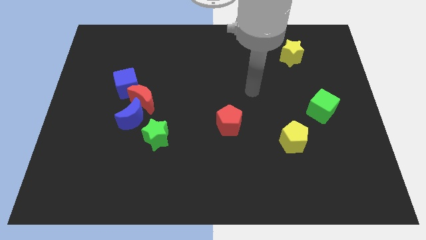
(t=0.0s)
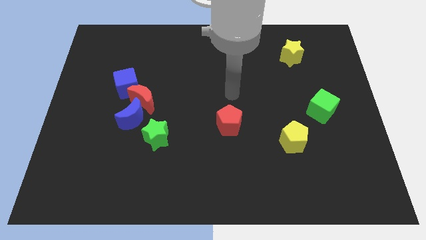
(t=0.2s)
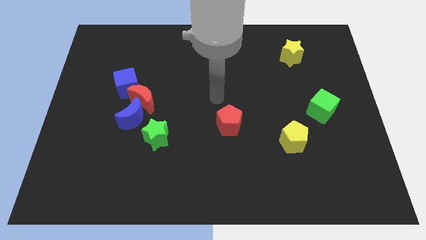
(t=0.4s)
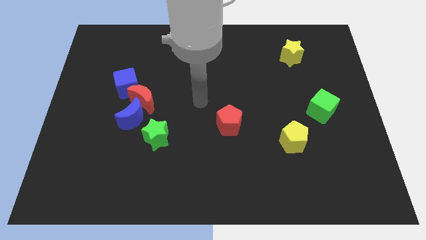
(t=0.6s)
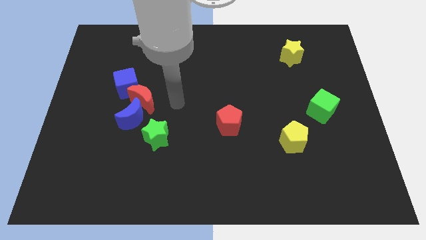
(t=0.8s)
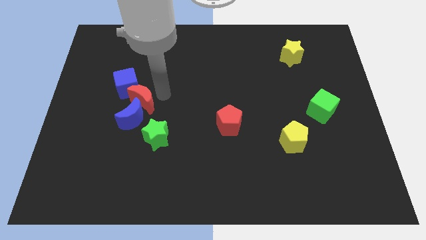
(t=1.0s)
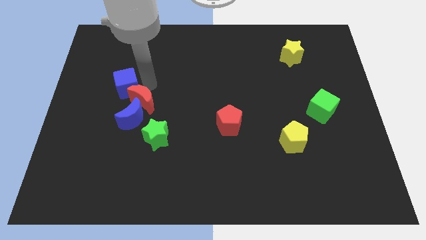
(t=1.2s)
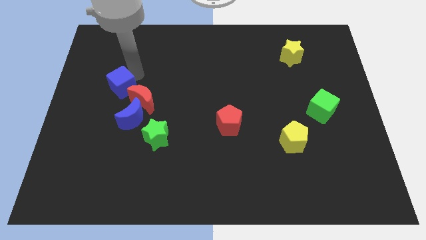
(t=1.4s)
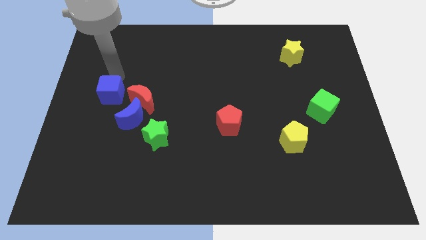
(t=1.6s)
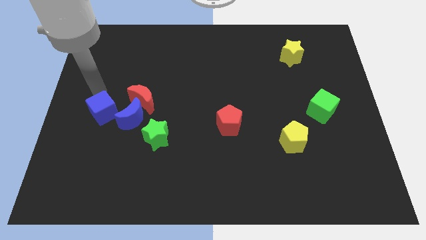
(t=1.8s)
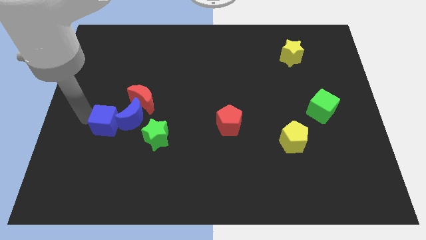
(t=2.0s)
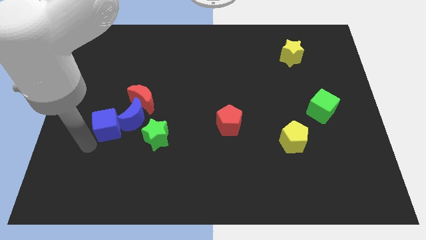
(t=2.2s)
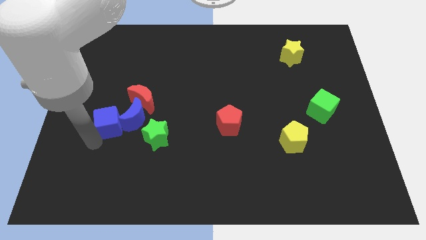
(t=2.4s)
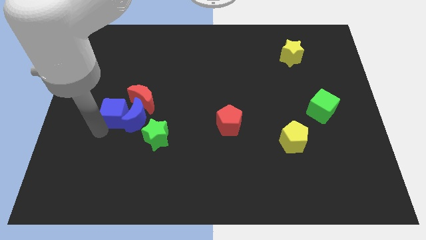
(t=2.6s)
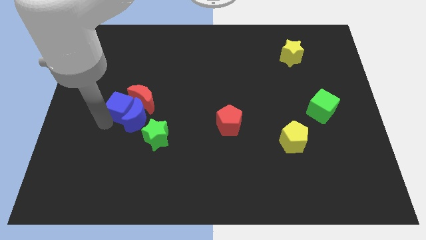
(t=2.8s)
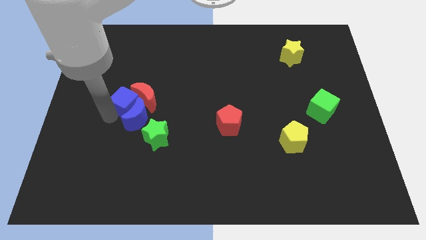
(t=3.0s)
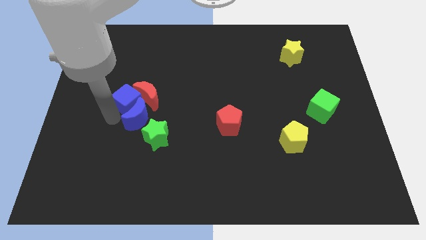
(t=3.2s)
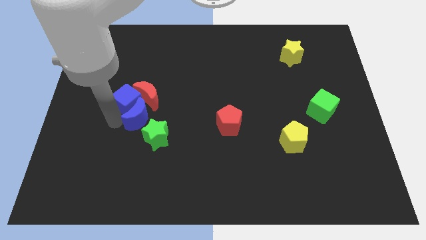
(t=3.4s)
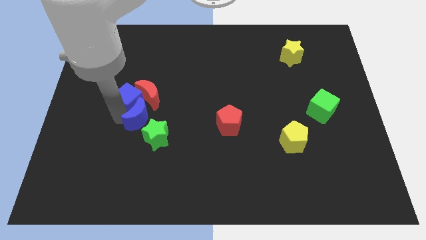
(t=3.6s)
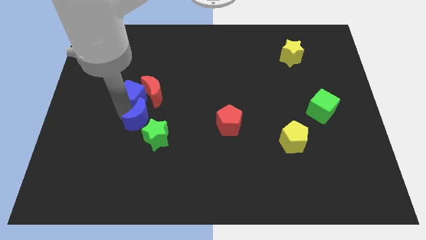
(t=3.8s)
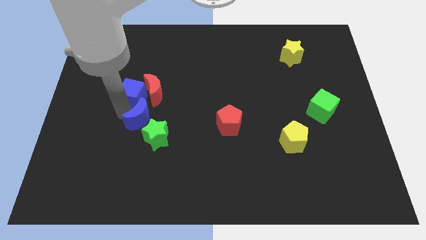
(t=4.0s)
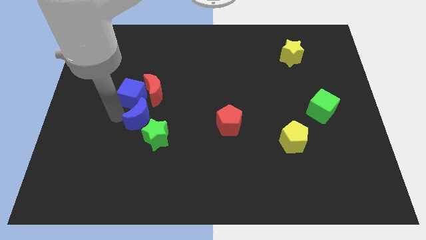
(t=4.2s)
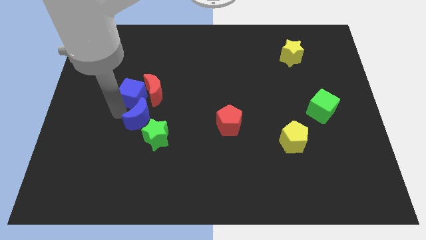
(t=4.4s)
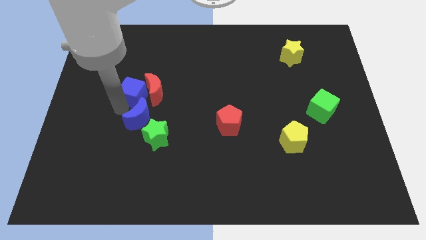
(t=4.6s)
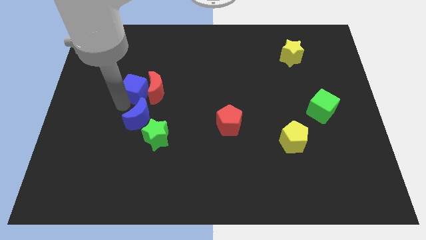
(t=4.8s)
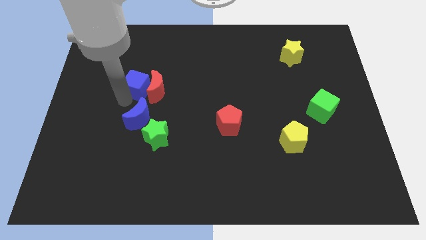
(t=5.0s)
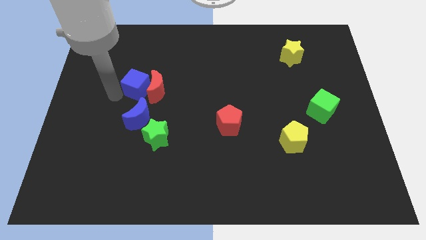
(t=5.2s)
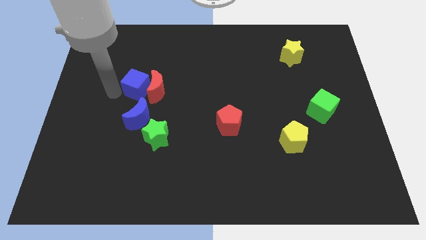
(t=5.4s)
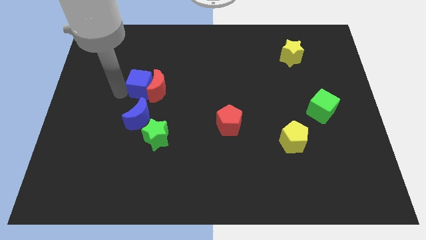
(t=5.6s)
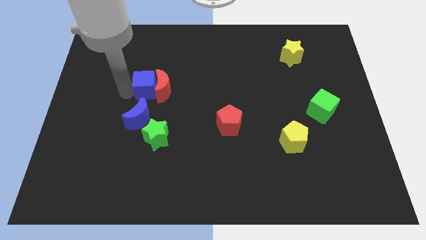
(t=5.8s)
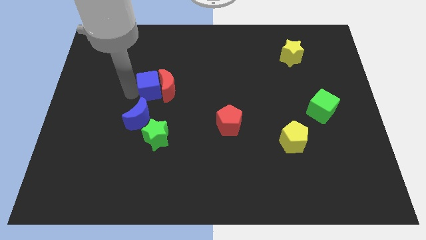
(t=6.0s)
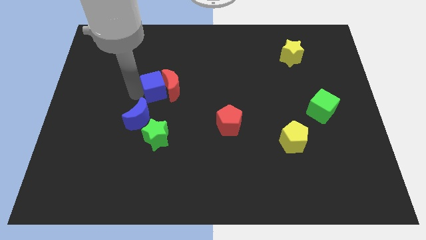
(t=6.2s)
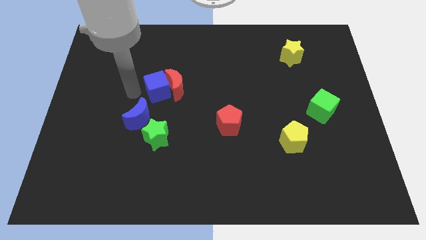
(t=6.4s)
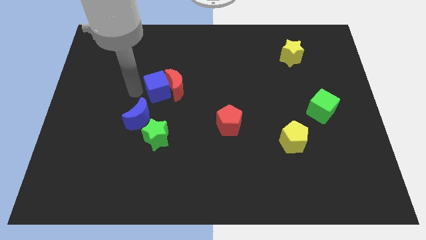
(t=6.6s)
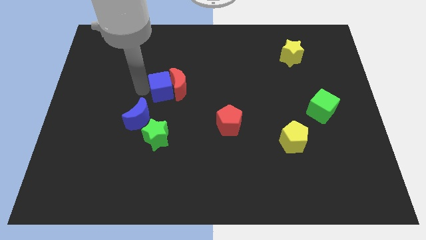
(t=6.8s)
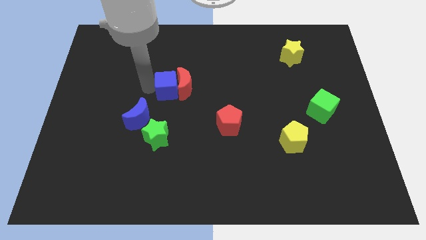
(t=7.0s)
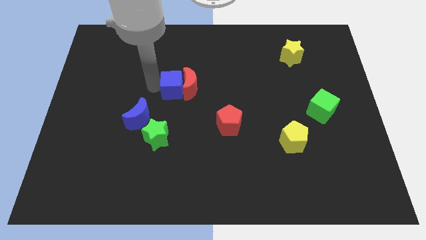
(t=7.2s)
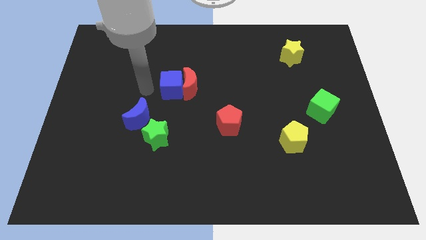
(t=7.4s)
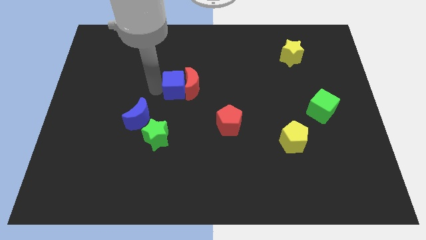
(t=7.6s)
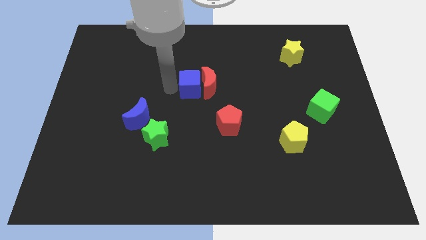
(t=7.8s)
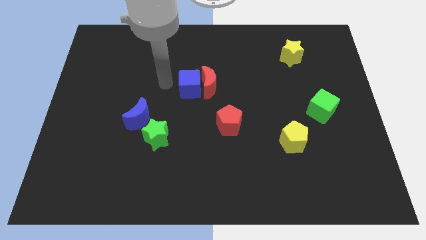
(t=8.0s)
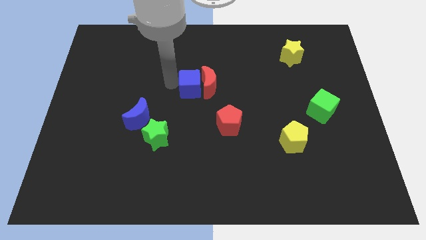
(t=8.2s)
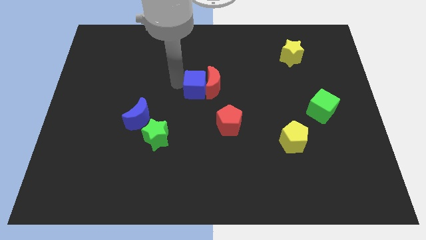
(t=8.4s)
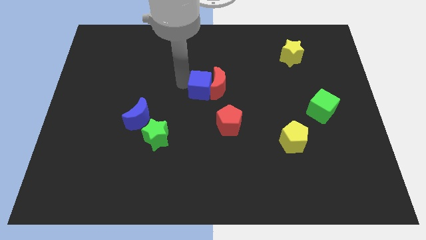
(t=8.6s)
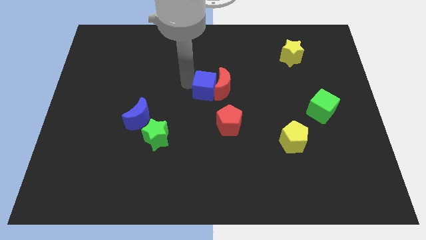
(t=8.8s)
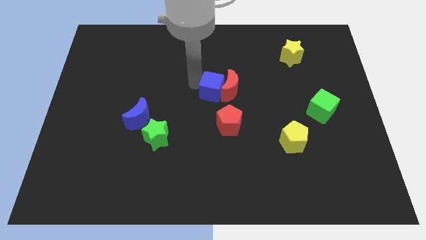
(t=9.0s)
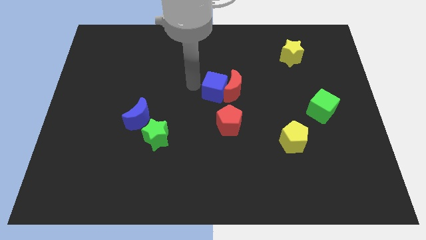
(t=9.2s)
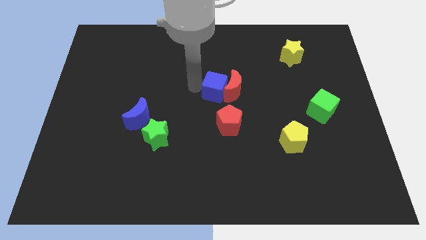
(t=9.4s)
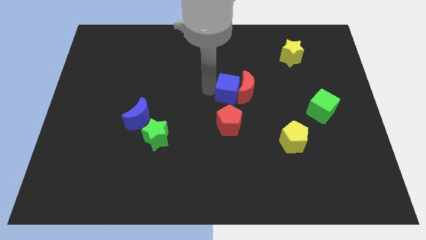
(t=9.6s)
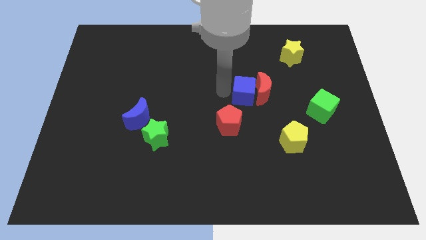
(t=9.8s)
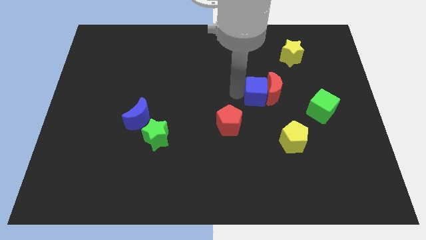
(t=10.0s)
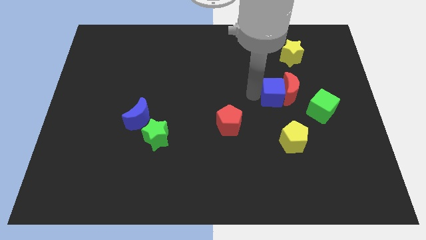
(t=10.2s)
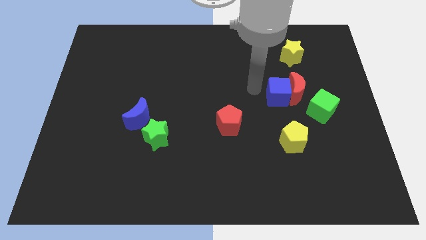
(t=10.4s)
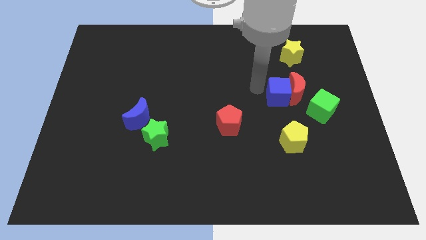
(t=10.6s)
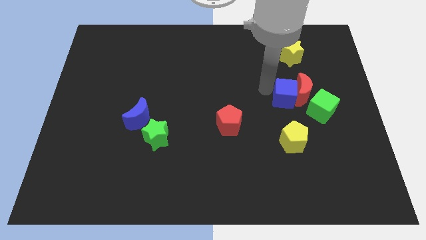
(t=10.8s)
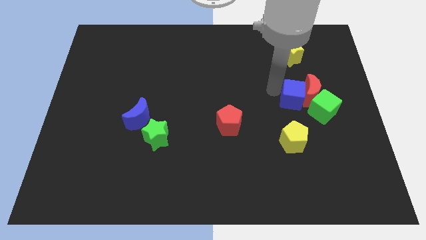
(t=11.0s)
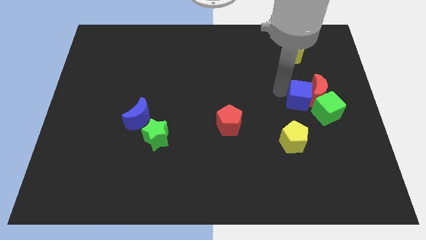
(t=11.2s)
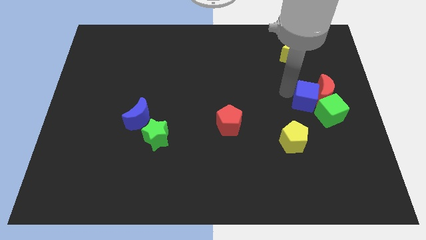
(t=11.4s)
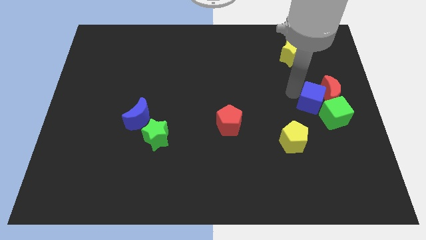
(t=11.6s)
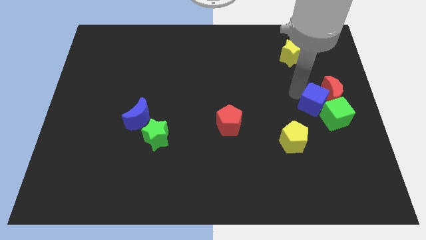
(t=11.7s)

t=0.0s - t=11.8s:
put the blue cube close to the green cube
